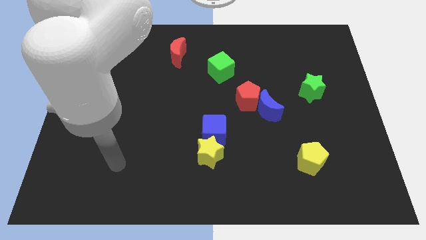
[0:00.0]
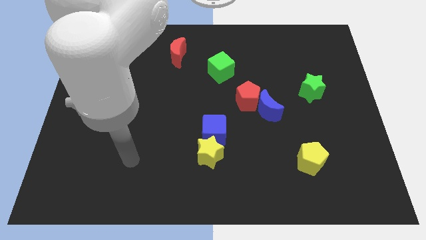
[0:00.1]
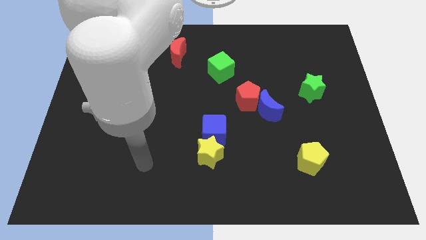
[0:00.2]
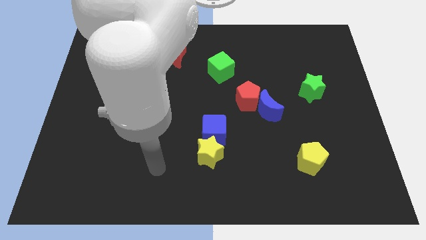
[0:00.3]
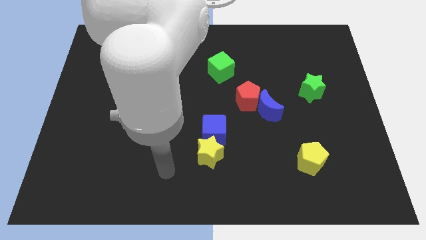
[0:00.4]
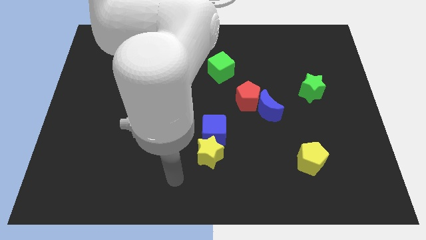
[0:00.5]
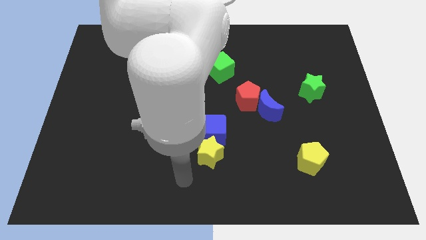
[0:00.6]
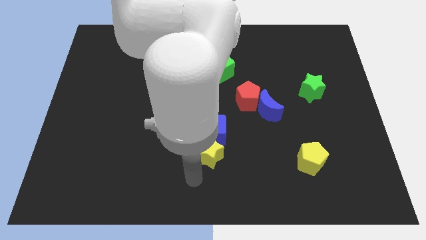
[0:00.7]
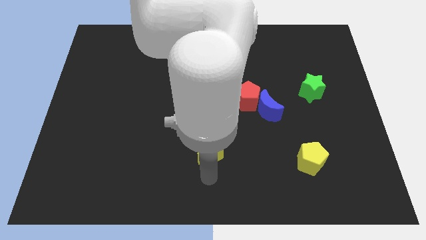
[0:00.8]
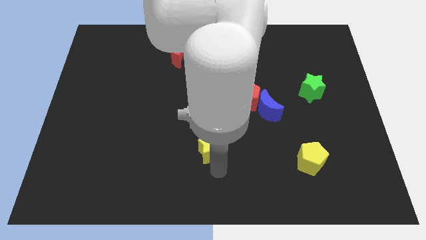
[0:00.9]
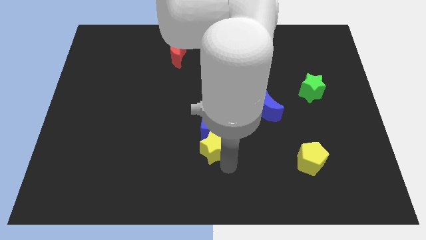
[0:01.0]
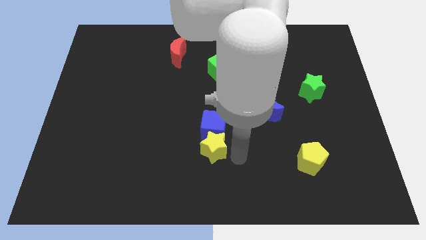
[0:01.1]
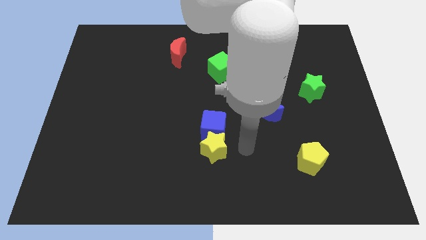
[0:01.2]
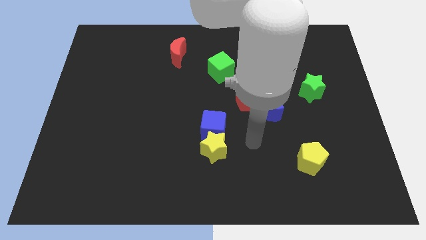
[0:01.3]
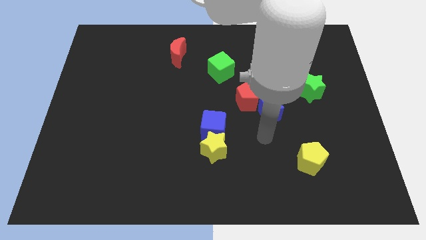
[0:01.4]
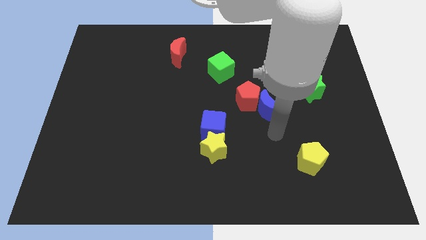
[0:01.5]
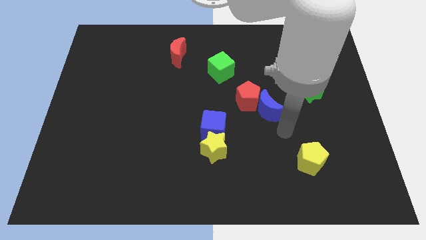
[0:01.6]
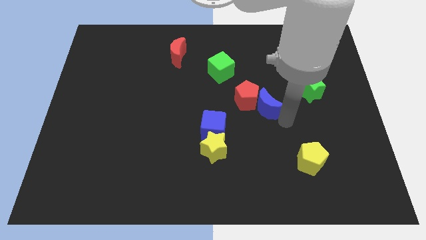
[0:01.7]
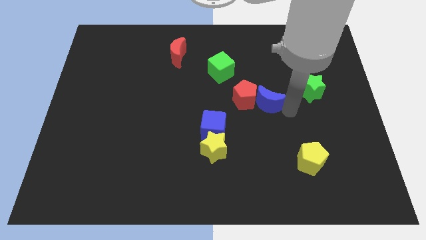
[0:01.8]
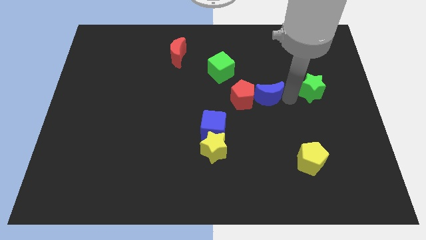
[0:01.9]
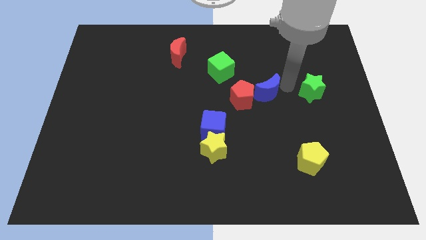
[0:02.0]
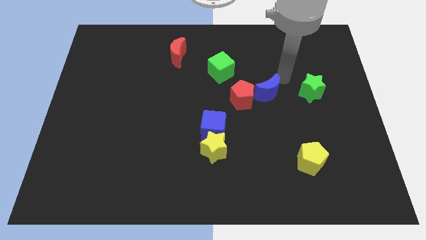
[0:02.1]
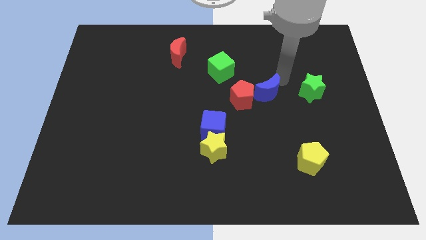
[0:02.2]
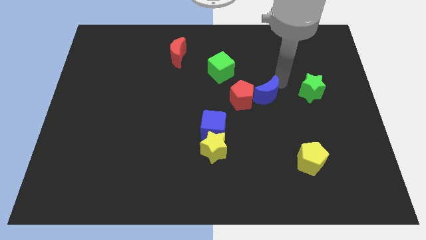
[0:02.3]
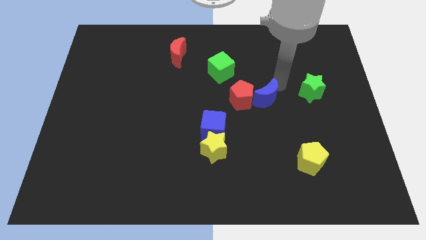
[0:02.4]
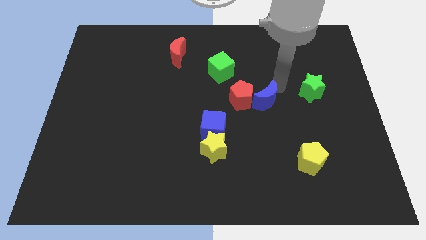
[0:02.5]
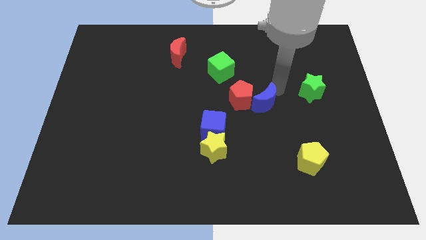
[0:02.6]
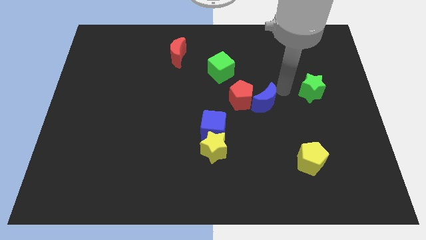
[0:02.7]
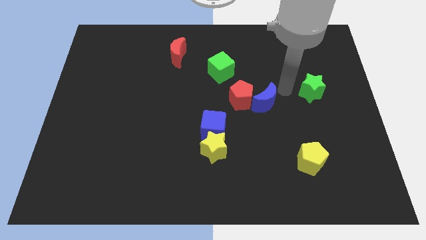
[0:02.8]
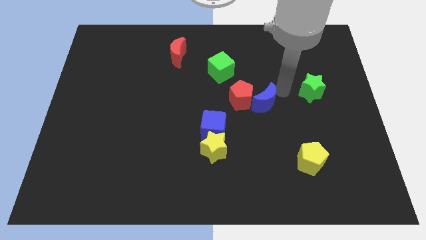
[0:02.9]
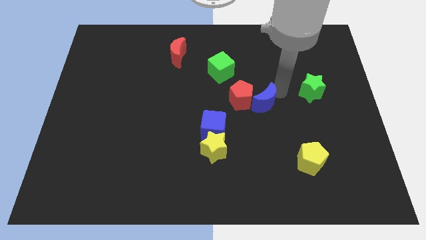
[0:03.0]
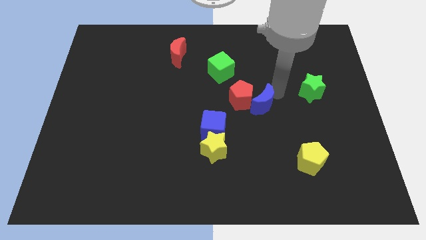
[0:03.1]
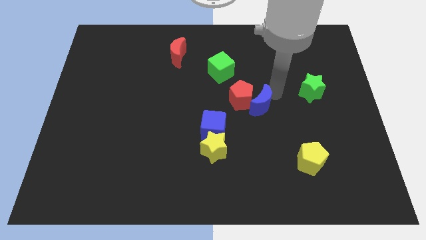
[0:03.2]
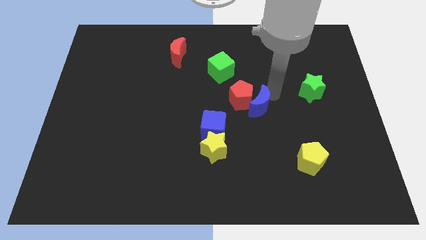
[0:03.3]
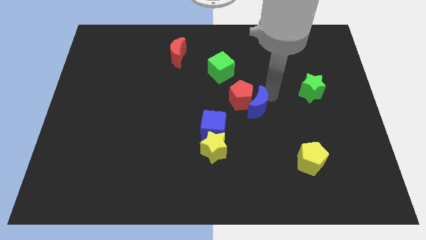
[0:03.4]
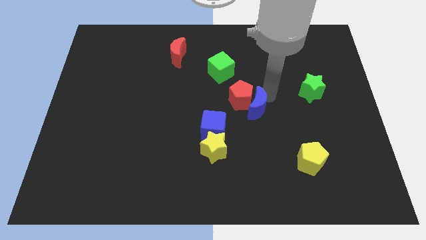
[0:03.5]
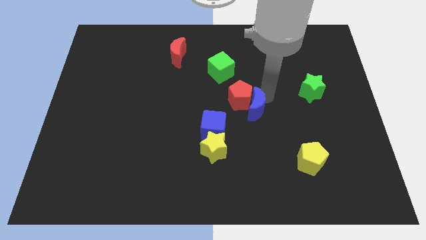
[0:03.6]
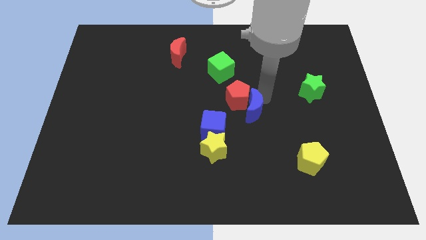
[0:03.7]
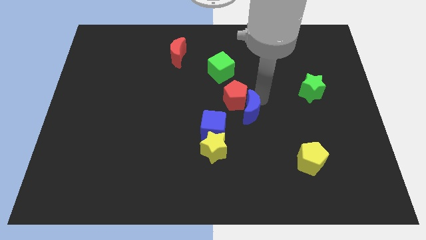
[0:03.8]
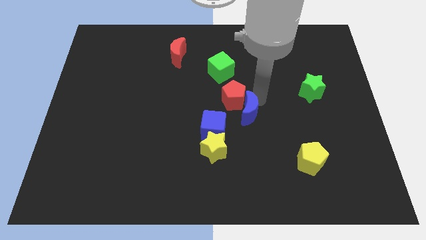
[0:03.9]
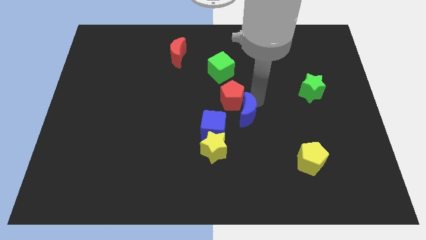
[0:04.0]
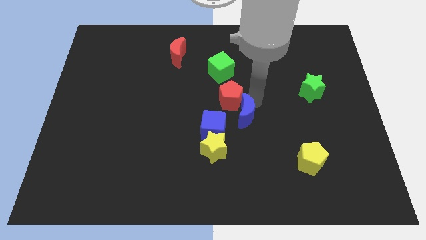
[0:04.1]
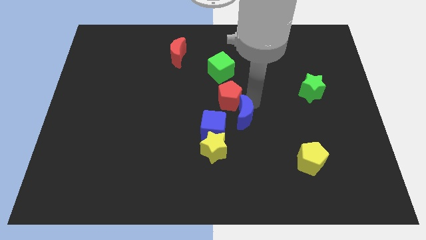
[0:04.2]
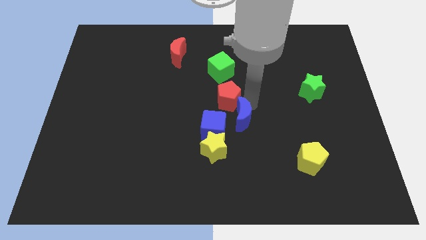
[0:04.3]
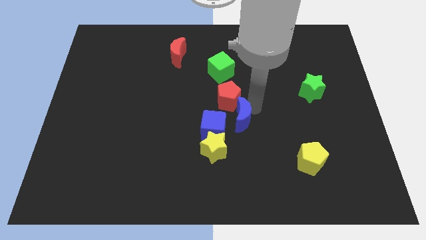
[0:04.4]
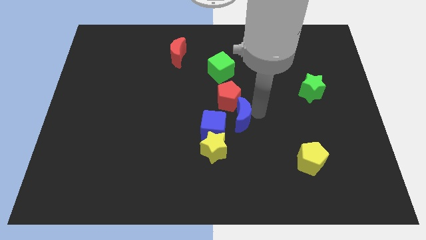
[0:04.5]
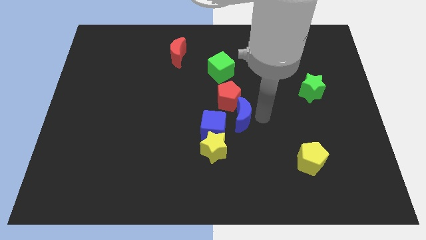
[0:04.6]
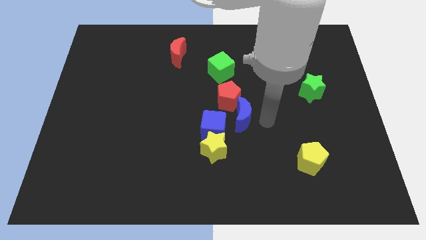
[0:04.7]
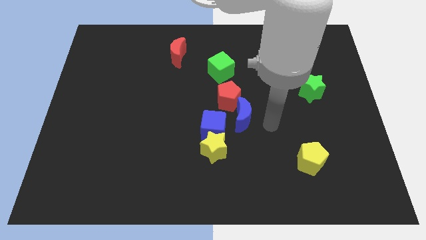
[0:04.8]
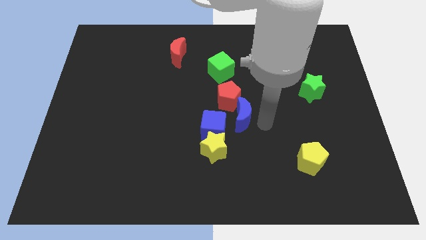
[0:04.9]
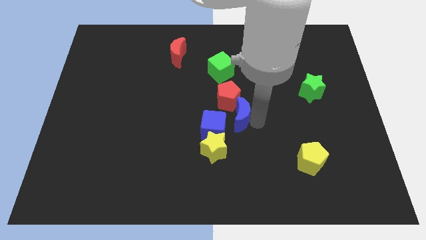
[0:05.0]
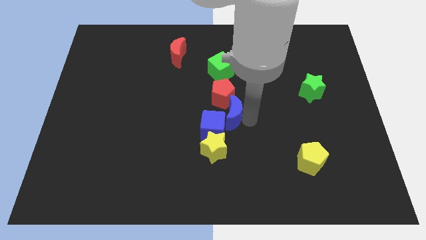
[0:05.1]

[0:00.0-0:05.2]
put the blue moon above the yellow star

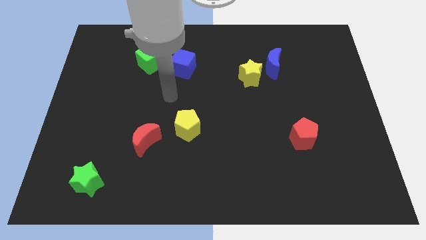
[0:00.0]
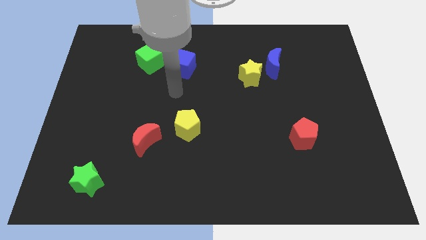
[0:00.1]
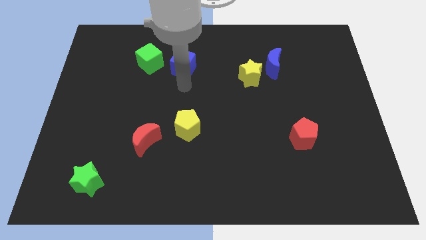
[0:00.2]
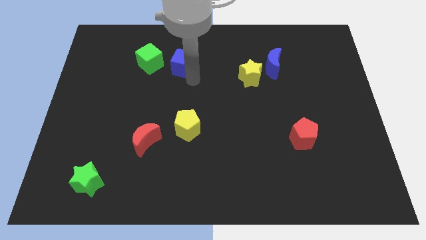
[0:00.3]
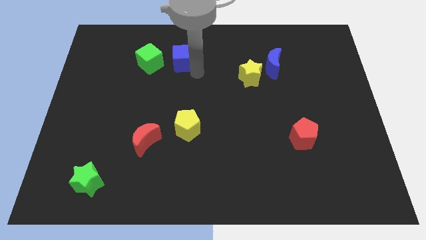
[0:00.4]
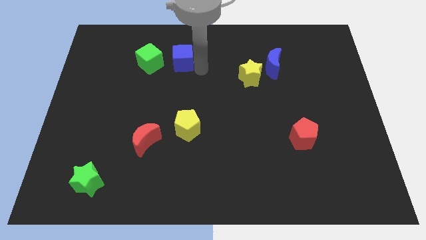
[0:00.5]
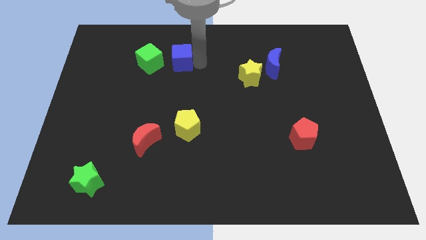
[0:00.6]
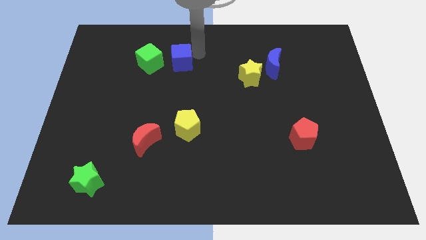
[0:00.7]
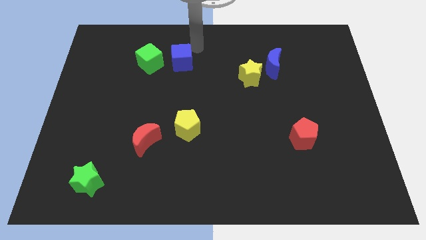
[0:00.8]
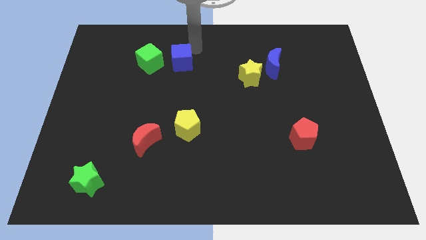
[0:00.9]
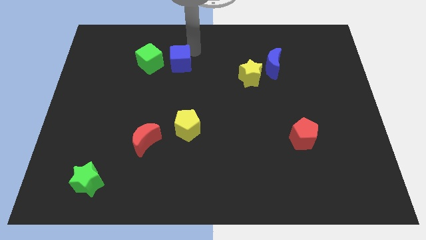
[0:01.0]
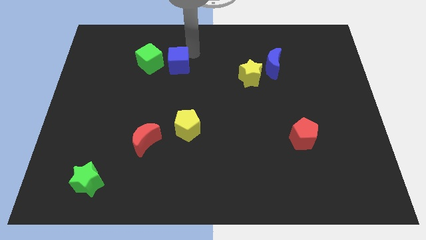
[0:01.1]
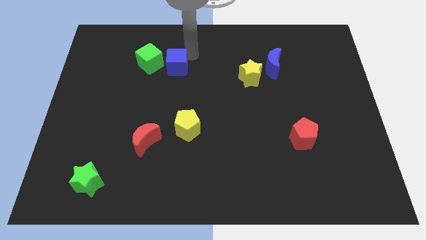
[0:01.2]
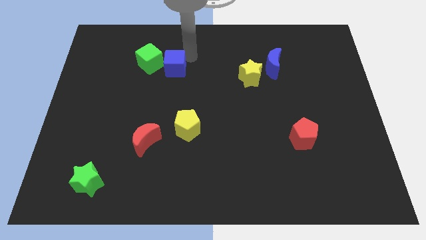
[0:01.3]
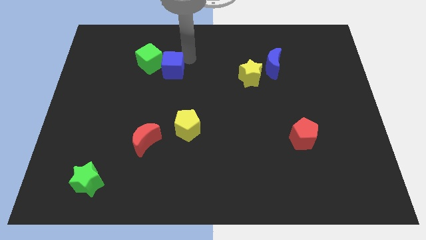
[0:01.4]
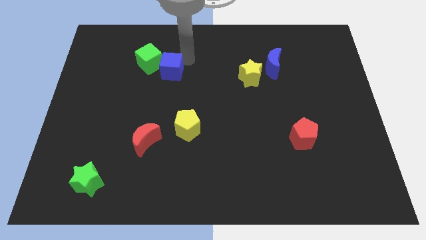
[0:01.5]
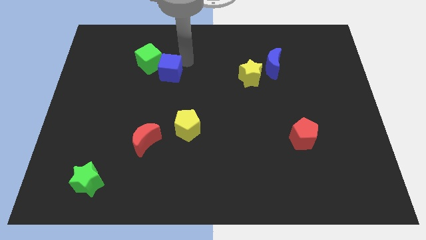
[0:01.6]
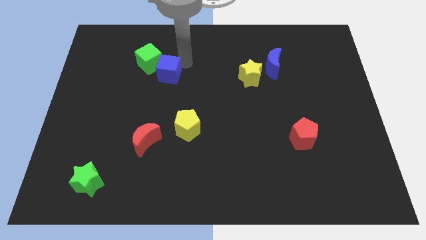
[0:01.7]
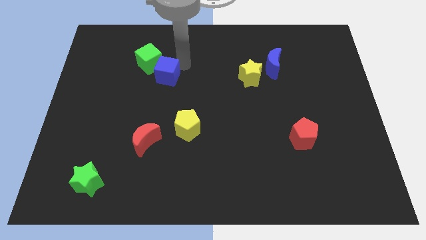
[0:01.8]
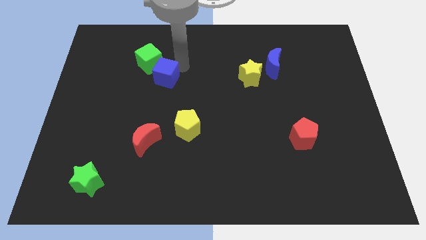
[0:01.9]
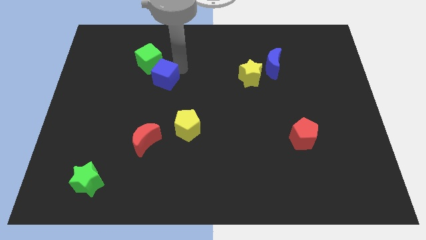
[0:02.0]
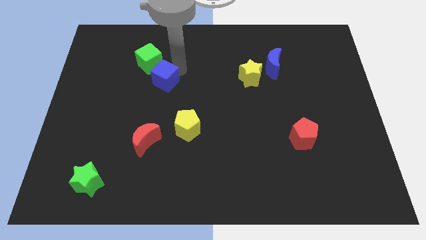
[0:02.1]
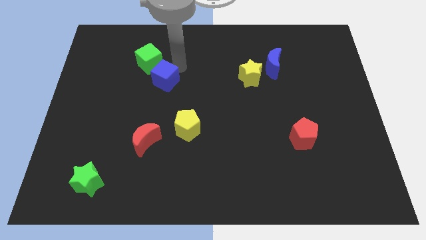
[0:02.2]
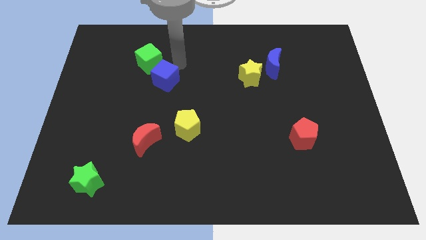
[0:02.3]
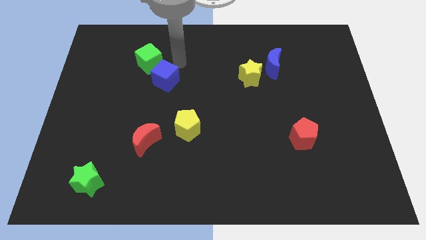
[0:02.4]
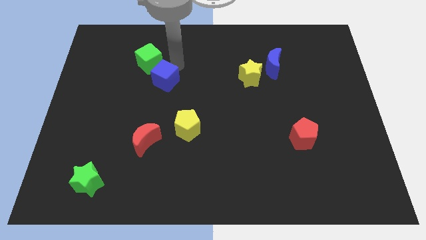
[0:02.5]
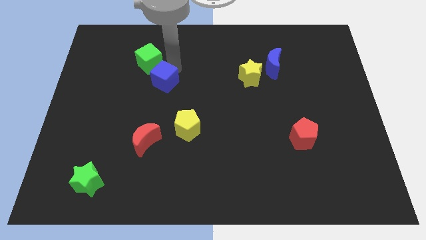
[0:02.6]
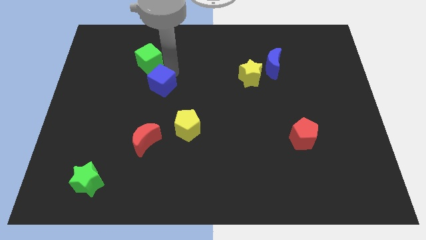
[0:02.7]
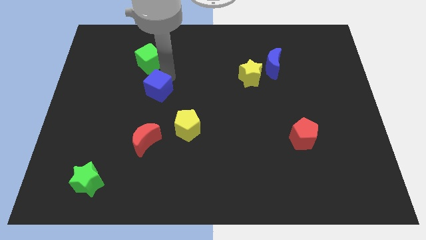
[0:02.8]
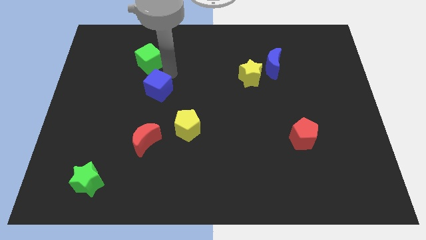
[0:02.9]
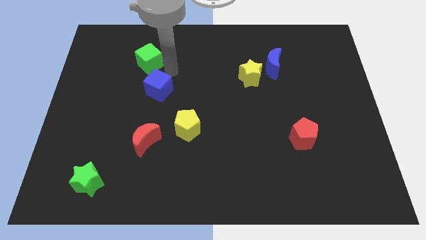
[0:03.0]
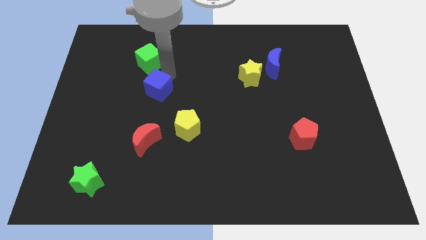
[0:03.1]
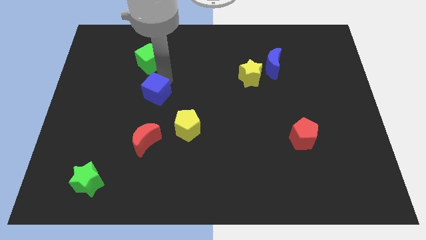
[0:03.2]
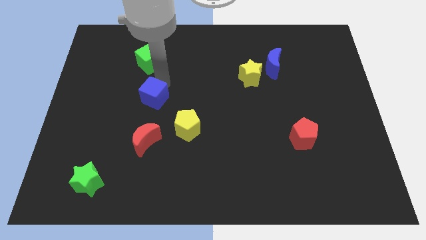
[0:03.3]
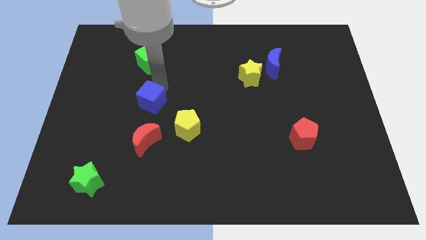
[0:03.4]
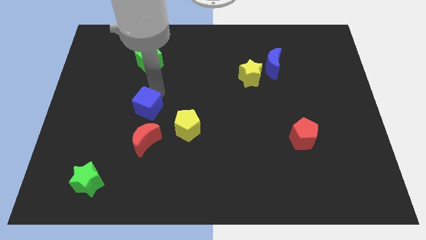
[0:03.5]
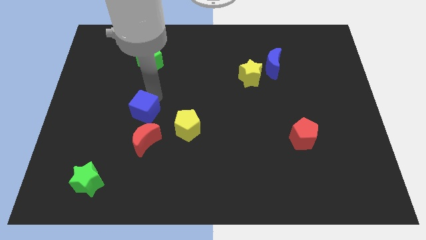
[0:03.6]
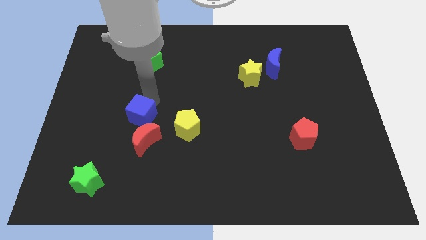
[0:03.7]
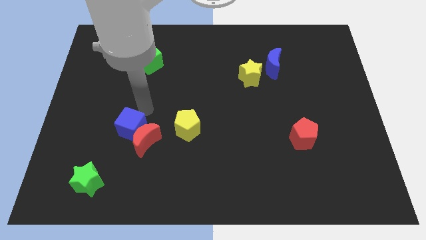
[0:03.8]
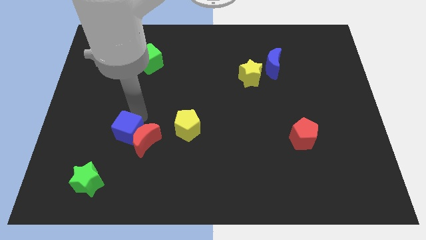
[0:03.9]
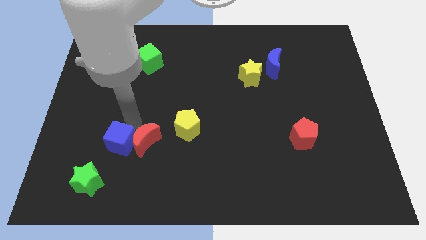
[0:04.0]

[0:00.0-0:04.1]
move the blue cube to the bottom left side of the red moon
